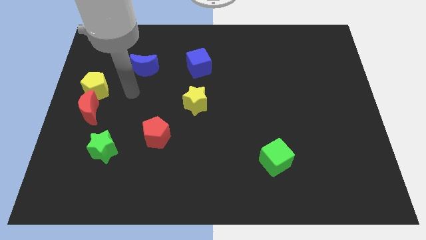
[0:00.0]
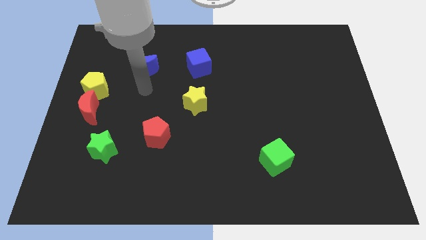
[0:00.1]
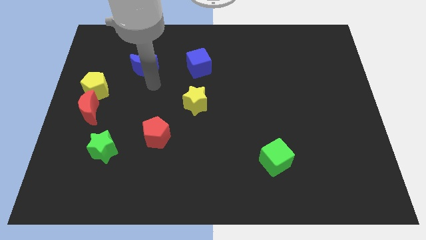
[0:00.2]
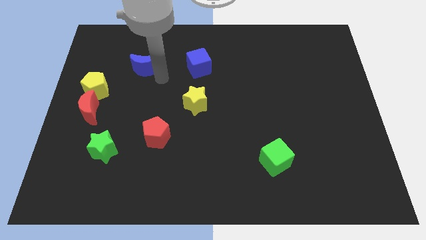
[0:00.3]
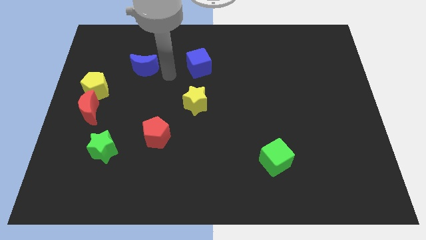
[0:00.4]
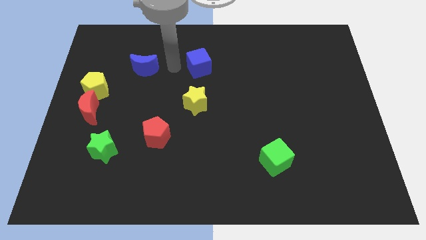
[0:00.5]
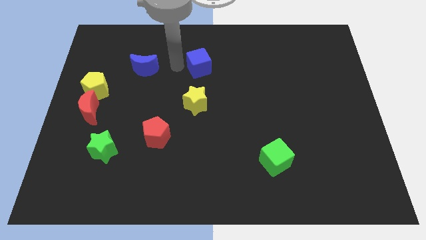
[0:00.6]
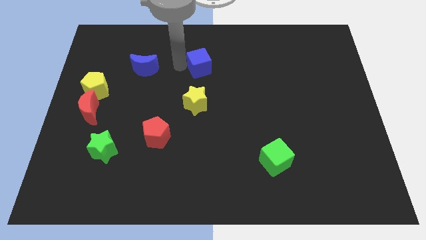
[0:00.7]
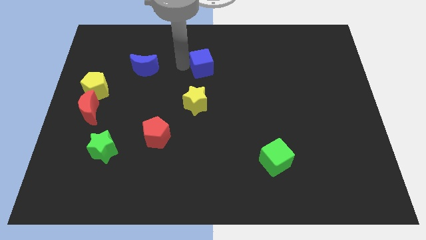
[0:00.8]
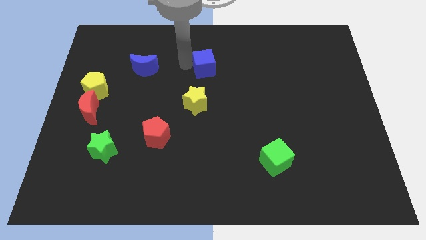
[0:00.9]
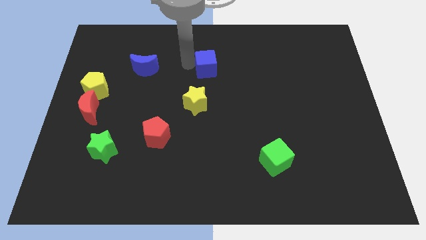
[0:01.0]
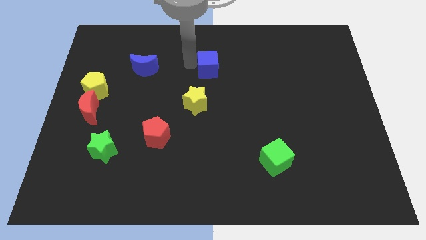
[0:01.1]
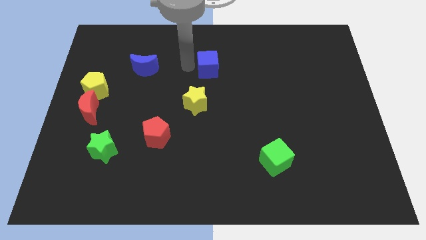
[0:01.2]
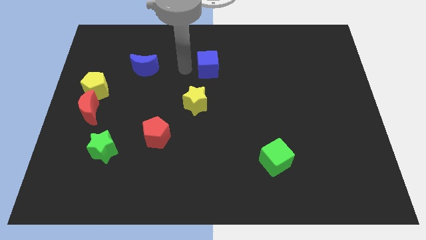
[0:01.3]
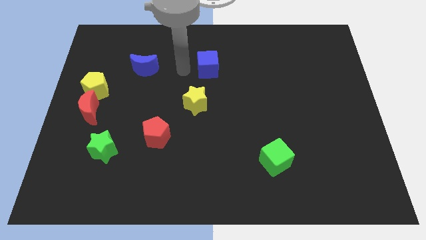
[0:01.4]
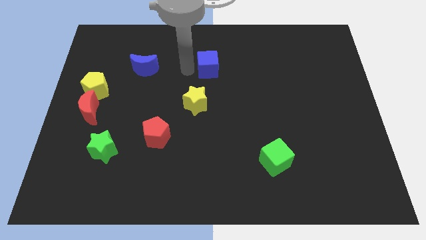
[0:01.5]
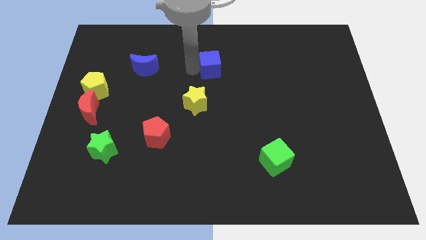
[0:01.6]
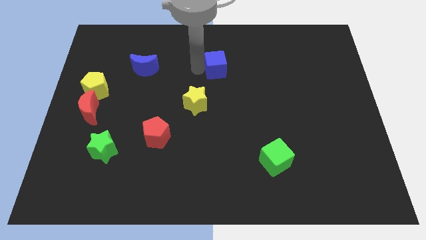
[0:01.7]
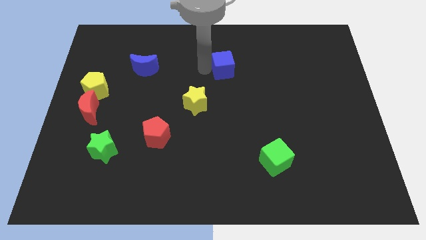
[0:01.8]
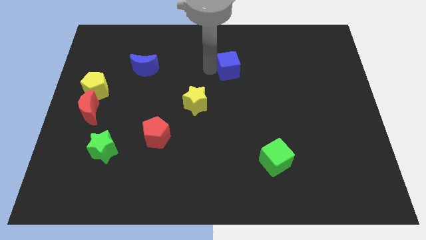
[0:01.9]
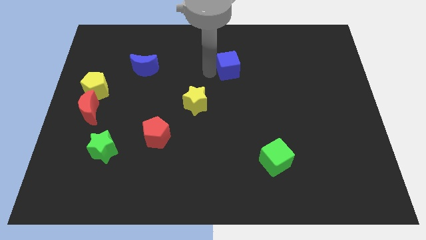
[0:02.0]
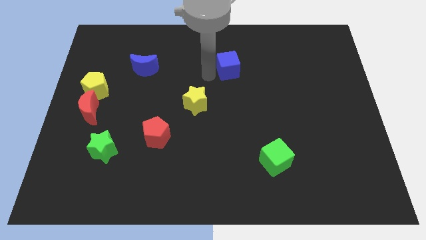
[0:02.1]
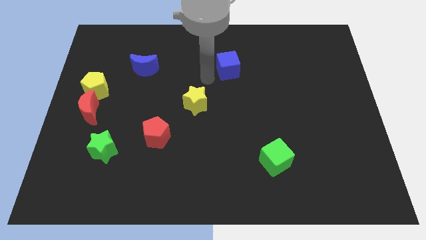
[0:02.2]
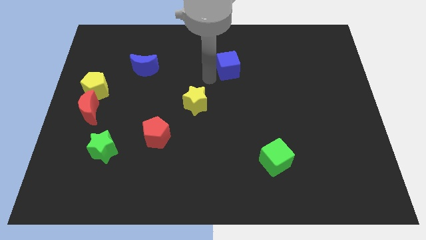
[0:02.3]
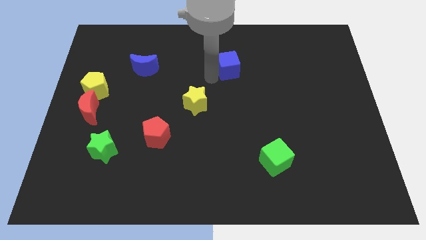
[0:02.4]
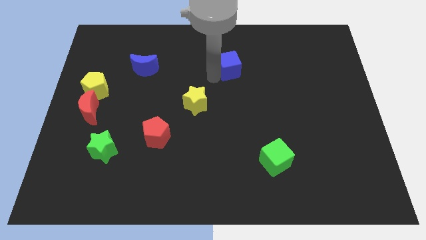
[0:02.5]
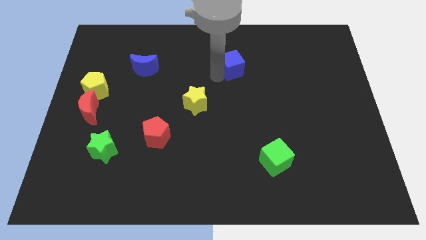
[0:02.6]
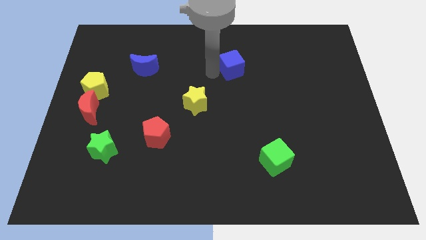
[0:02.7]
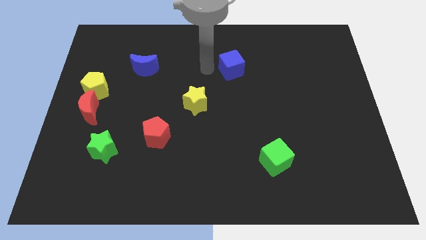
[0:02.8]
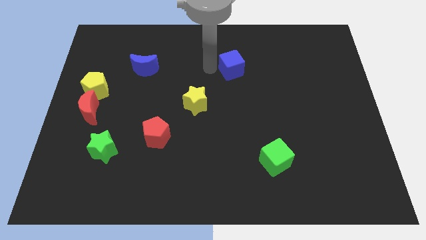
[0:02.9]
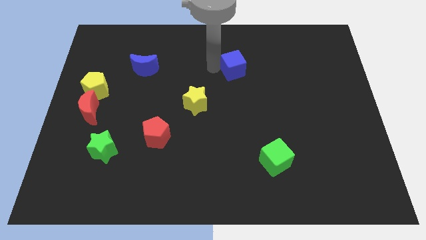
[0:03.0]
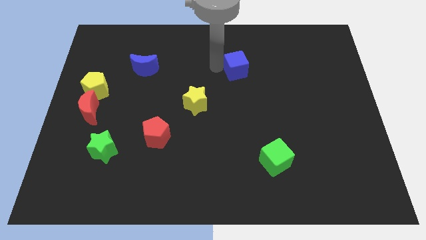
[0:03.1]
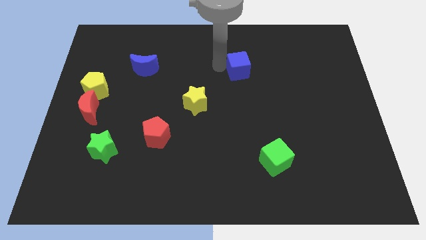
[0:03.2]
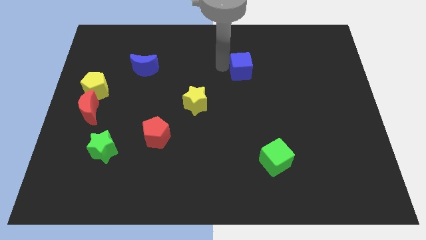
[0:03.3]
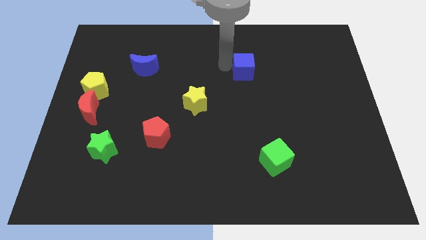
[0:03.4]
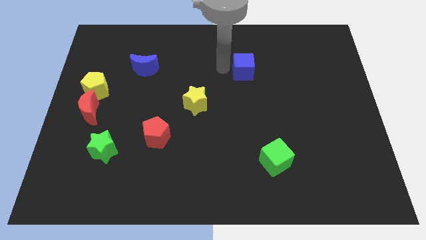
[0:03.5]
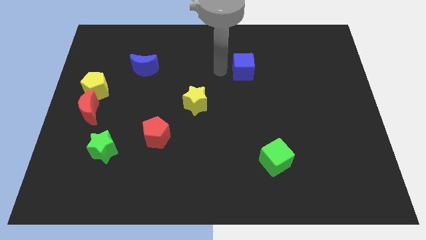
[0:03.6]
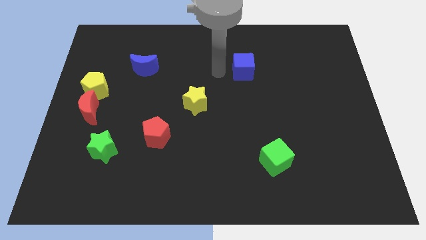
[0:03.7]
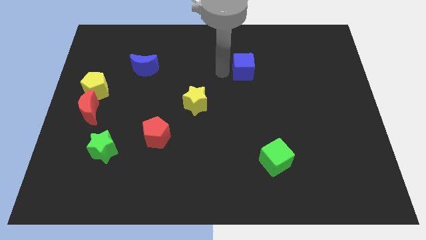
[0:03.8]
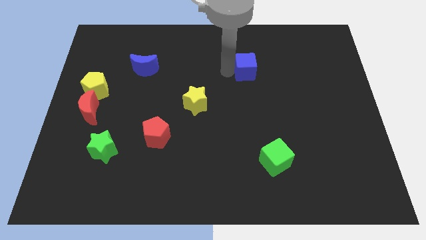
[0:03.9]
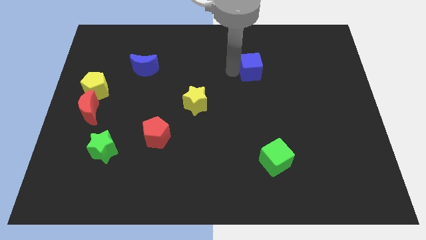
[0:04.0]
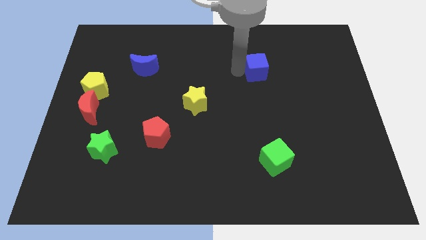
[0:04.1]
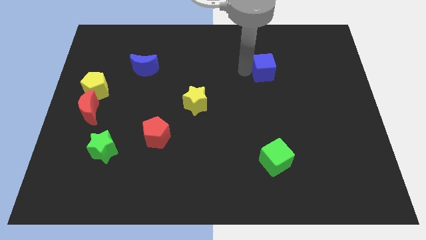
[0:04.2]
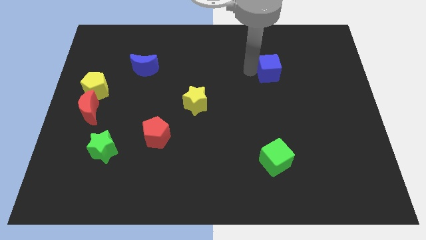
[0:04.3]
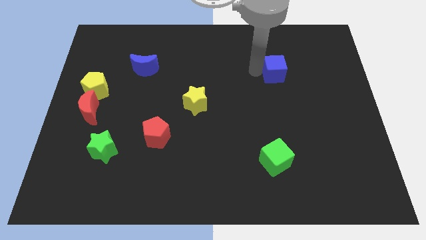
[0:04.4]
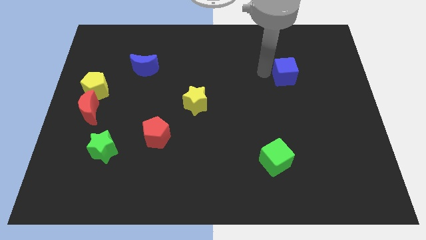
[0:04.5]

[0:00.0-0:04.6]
slide the blue cube to the right

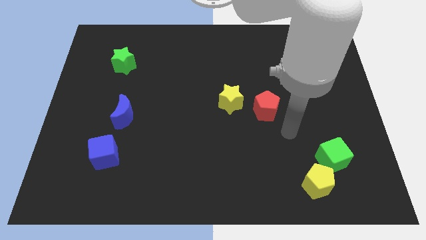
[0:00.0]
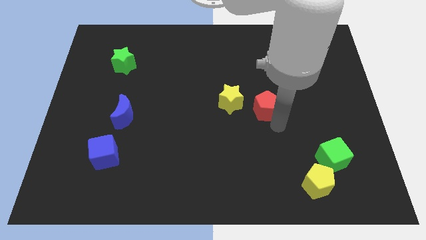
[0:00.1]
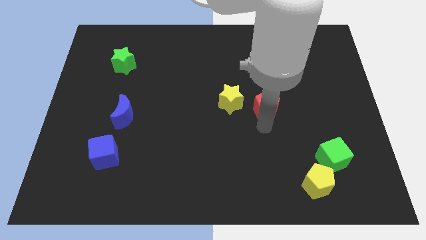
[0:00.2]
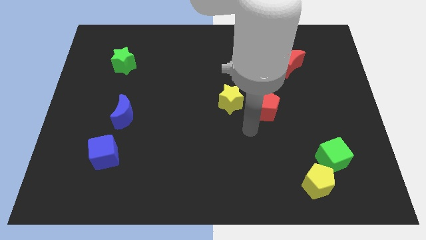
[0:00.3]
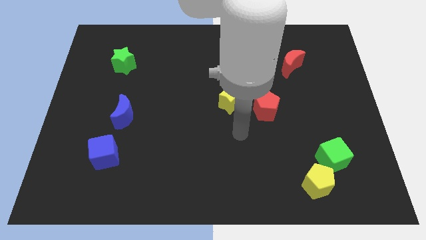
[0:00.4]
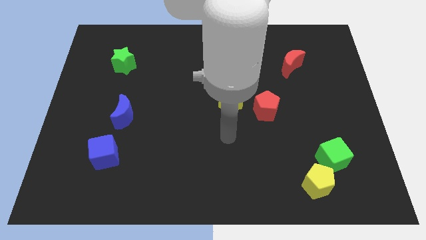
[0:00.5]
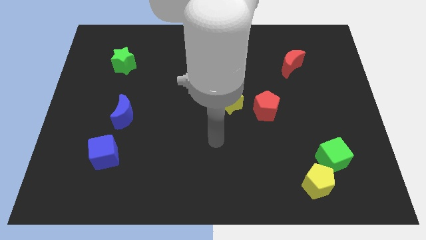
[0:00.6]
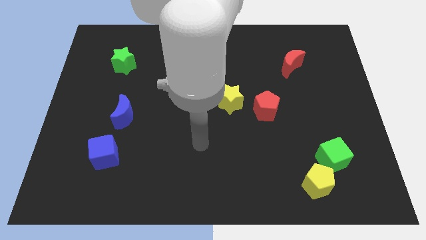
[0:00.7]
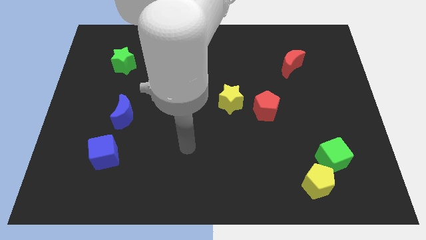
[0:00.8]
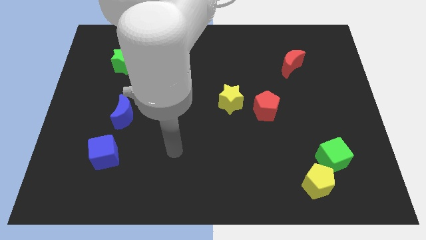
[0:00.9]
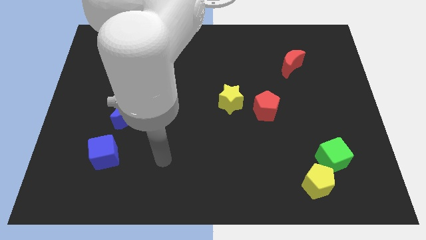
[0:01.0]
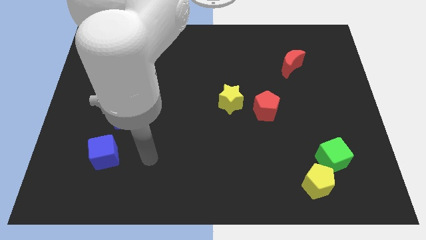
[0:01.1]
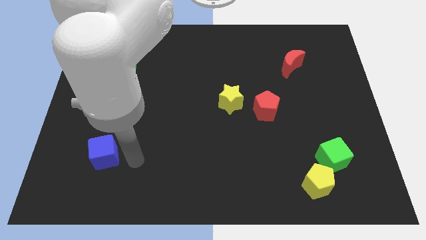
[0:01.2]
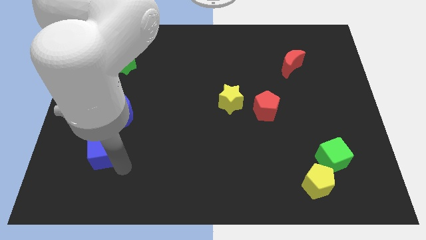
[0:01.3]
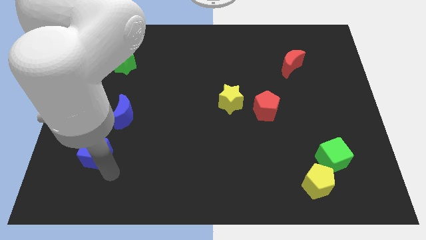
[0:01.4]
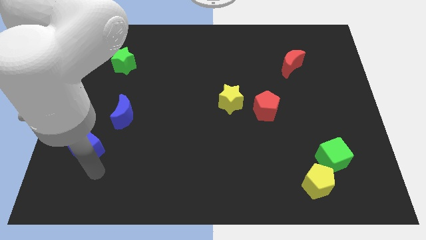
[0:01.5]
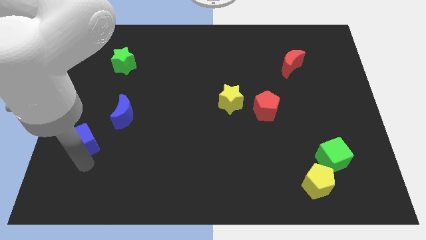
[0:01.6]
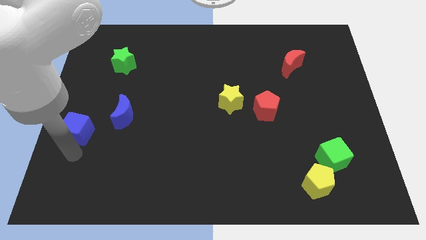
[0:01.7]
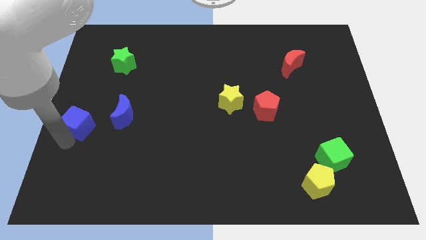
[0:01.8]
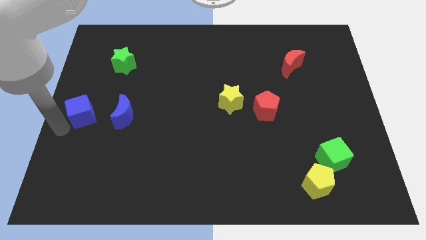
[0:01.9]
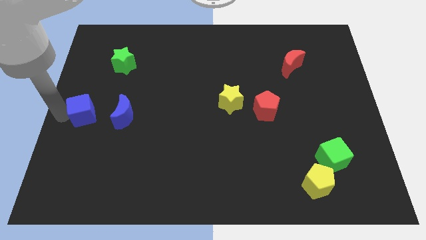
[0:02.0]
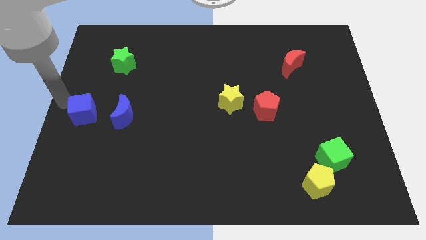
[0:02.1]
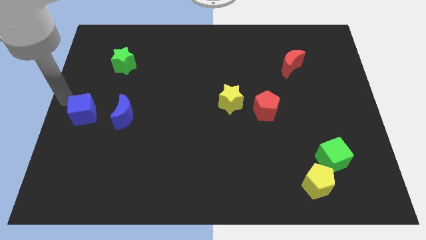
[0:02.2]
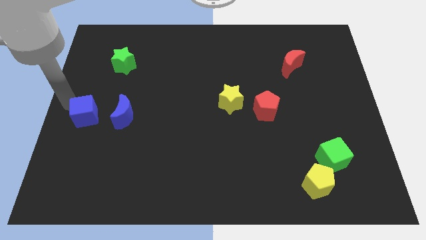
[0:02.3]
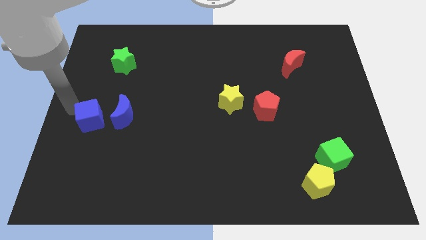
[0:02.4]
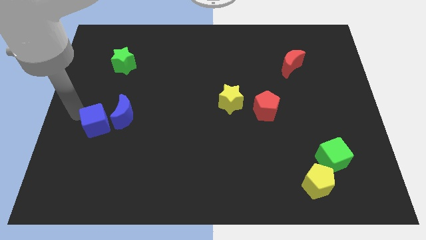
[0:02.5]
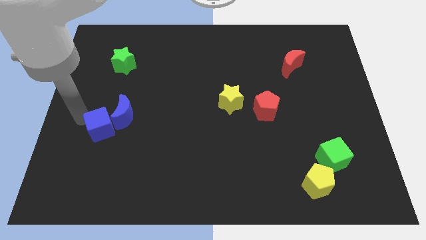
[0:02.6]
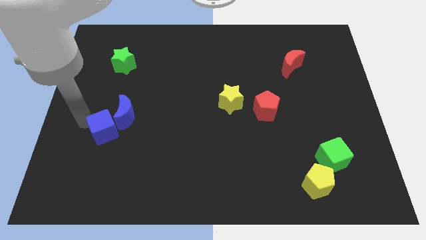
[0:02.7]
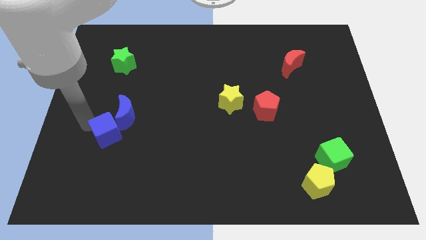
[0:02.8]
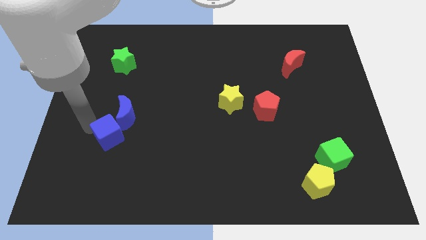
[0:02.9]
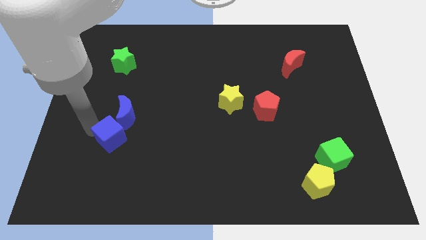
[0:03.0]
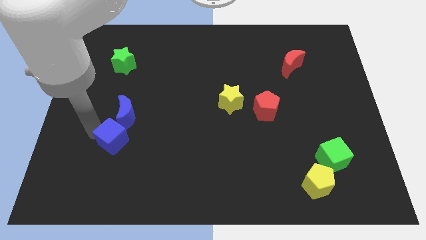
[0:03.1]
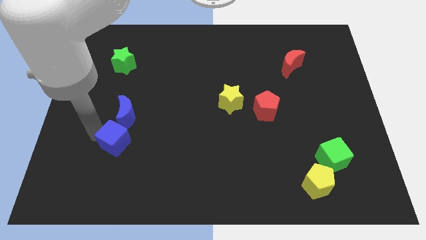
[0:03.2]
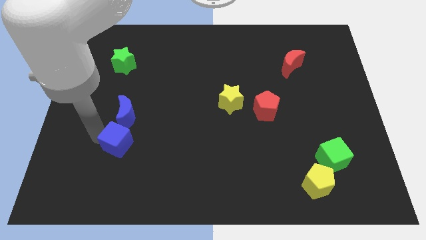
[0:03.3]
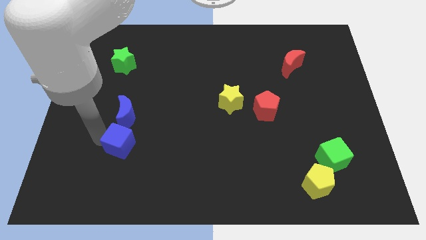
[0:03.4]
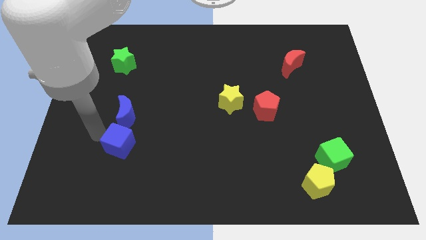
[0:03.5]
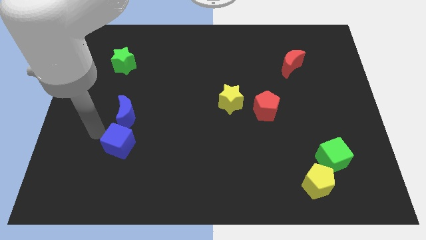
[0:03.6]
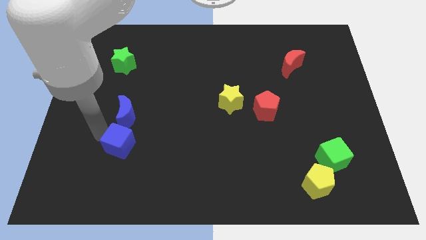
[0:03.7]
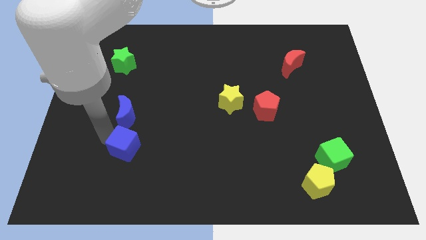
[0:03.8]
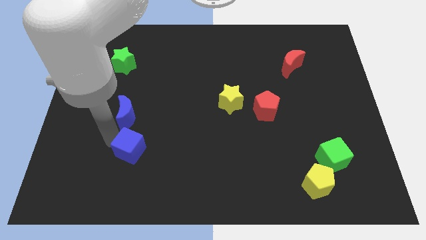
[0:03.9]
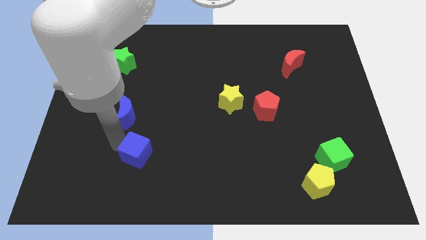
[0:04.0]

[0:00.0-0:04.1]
move the blue cube to the right a little
